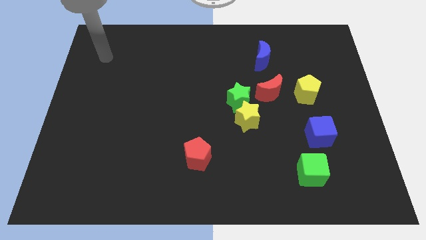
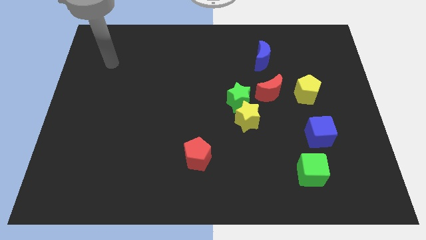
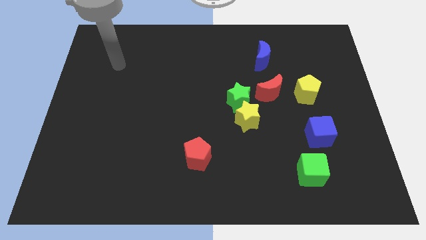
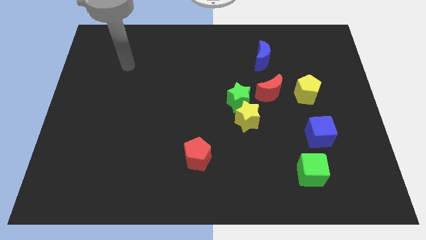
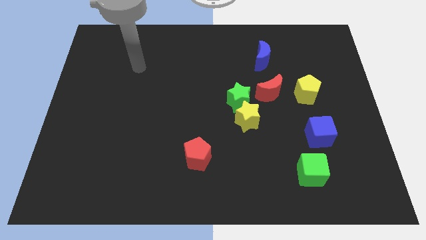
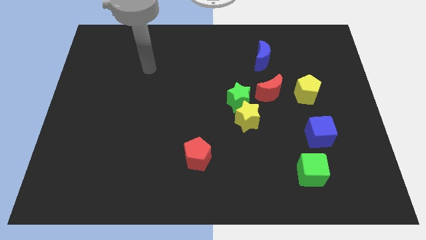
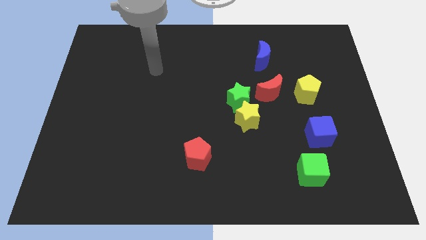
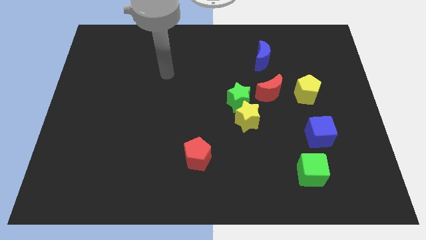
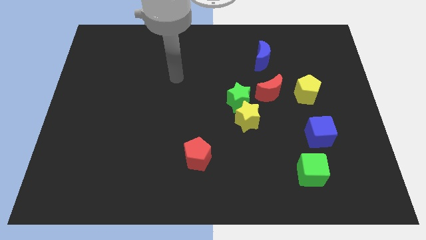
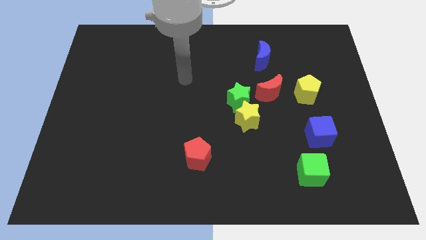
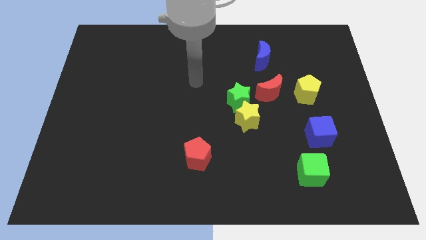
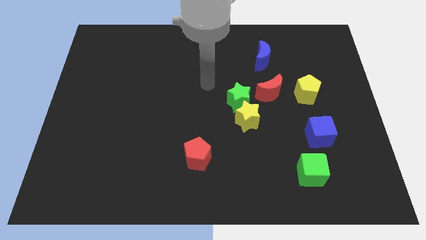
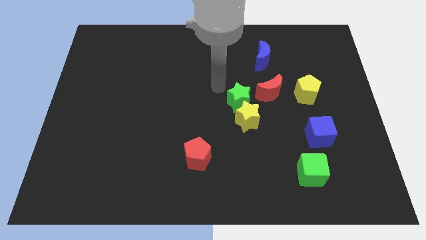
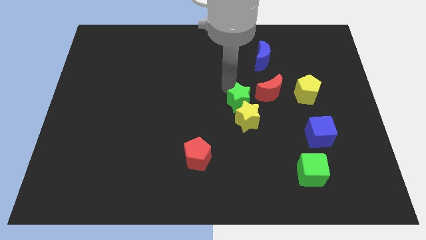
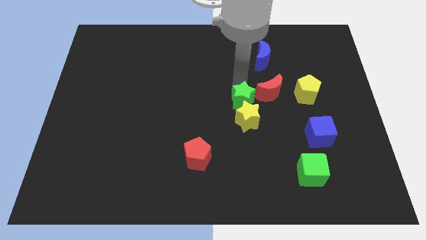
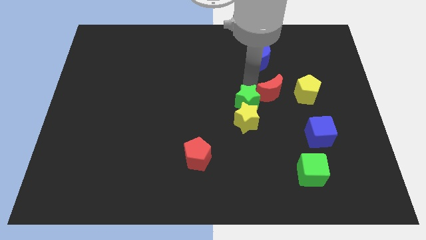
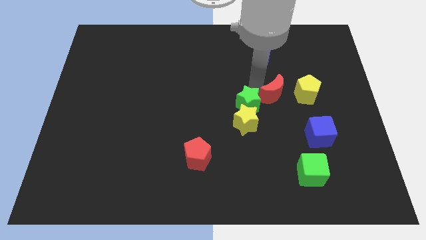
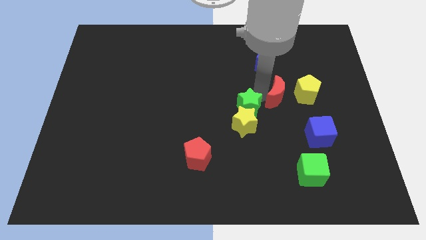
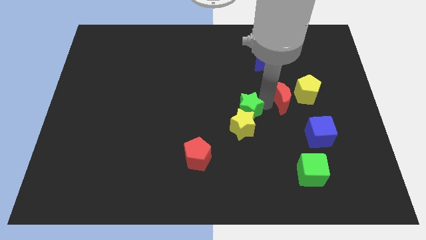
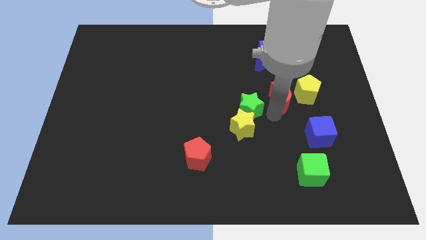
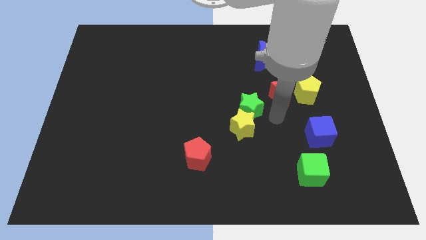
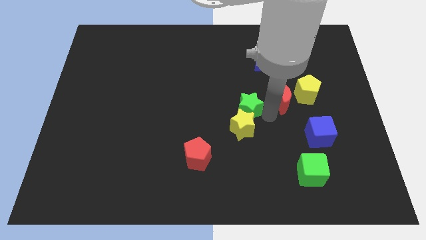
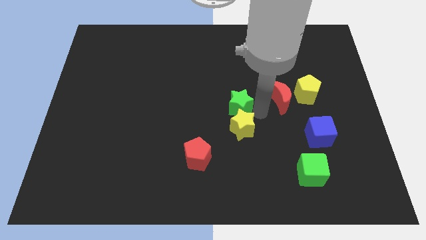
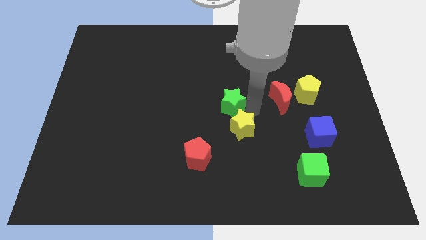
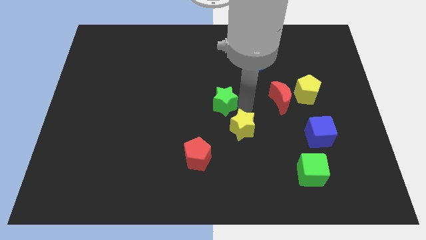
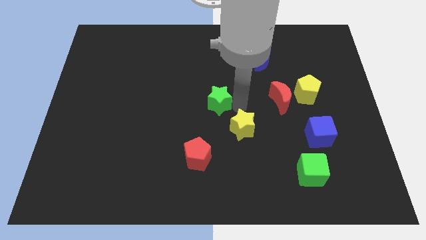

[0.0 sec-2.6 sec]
move the green star away from the yellow star and red moon

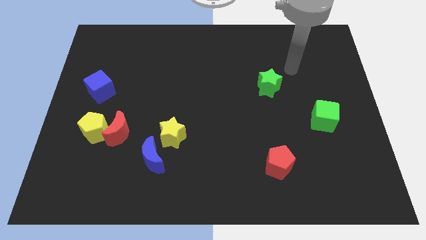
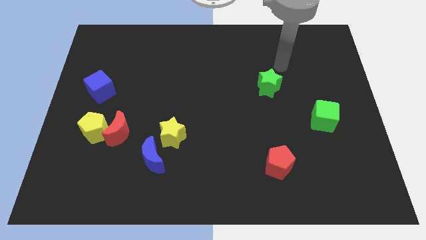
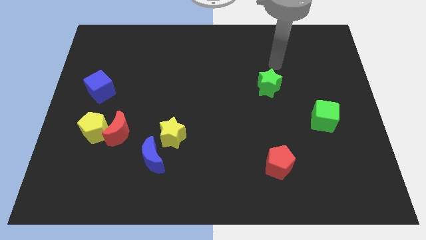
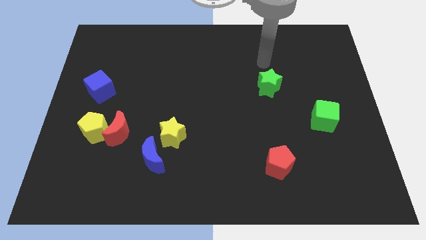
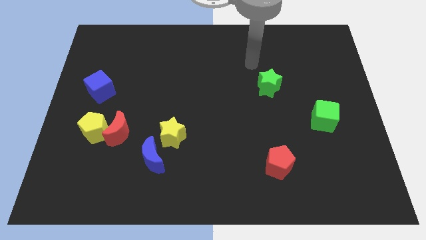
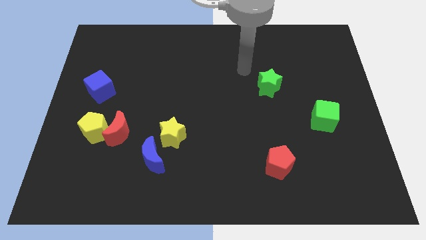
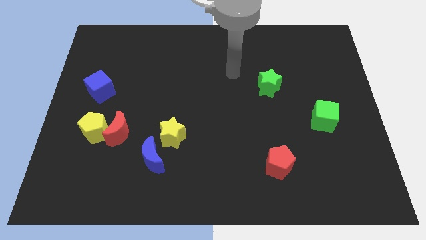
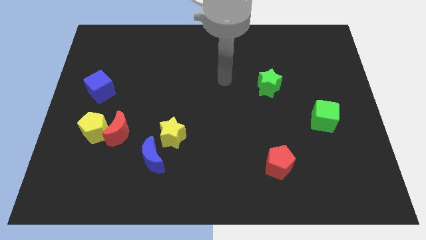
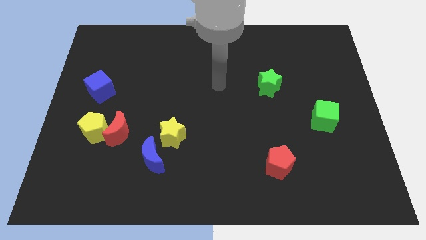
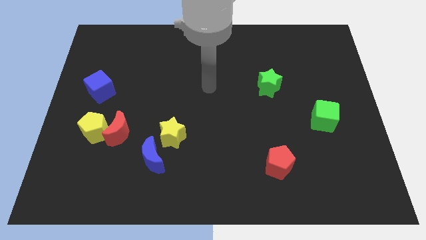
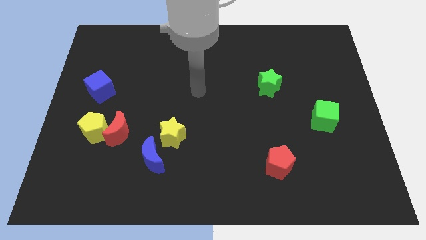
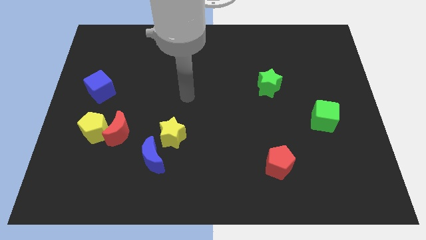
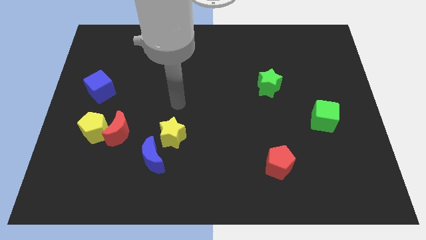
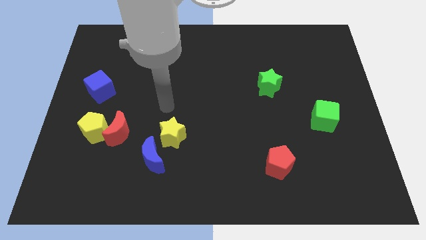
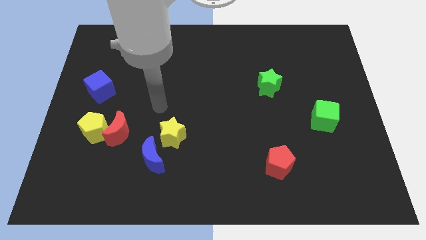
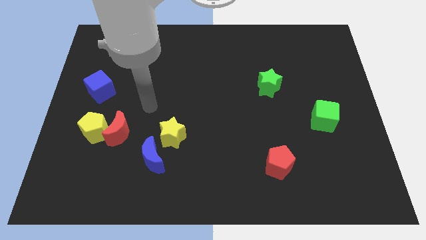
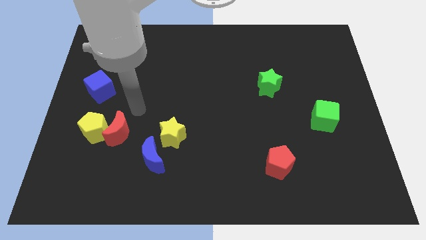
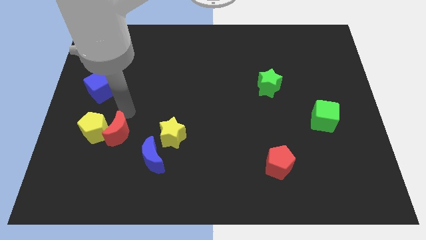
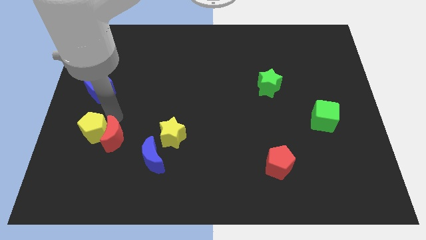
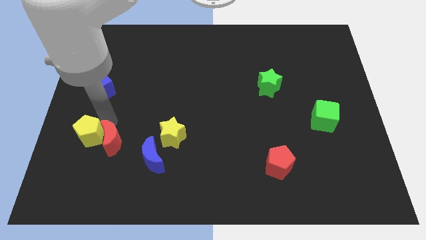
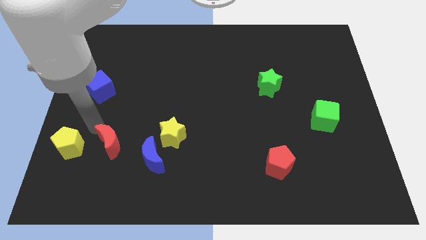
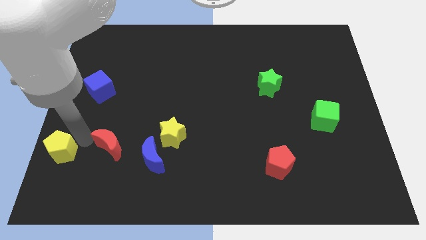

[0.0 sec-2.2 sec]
separate the red moon from the yellow pentagon

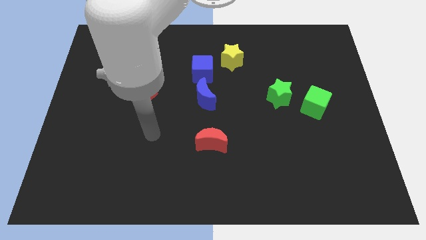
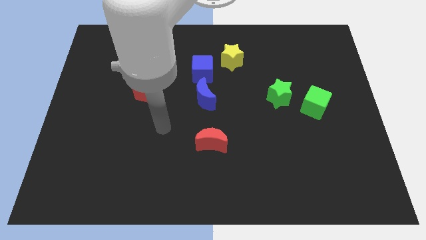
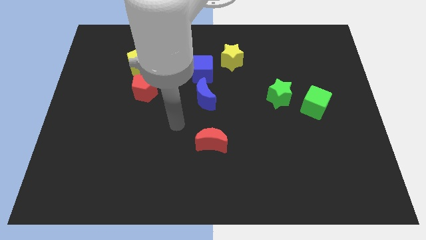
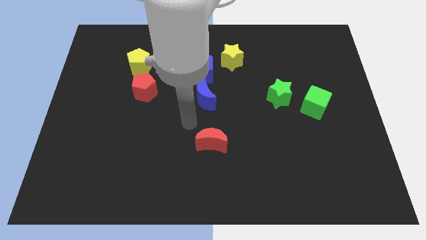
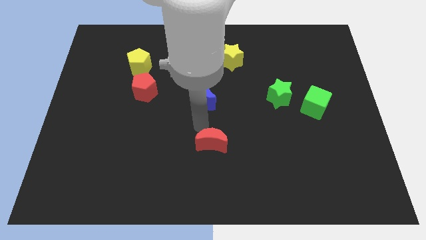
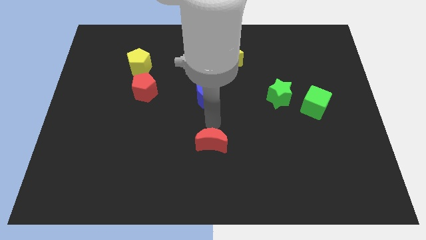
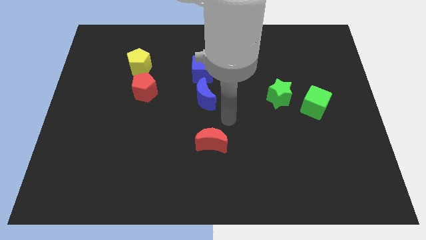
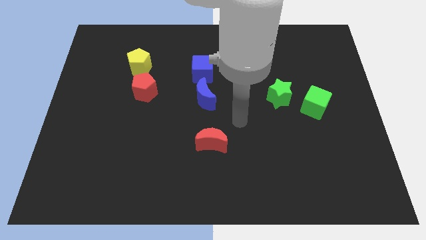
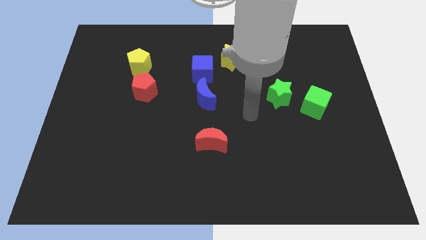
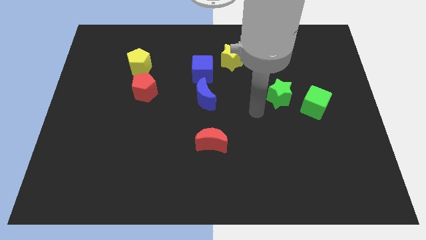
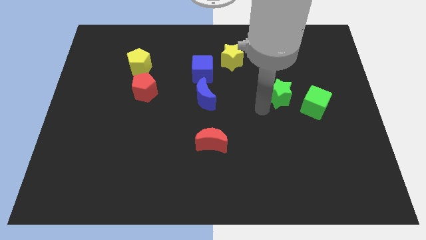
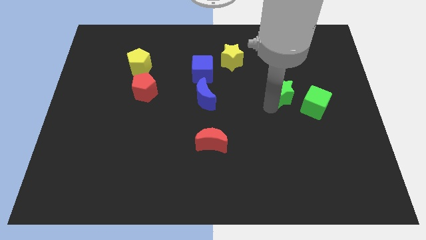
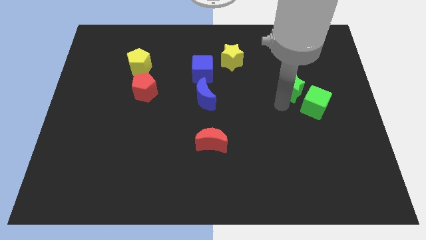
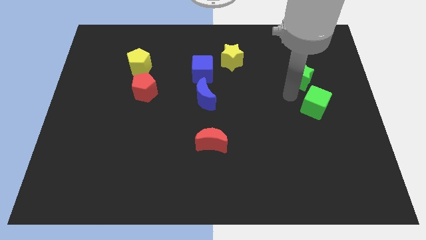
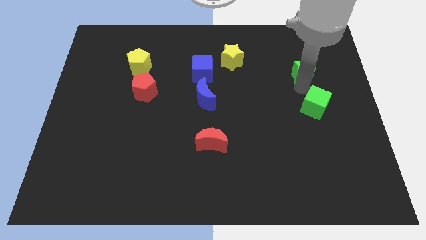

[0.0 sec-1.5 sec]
separate the green cube from the green star

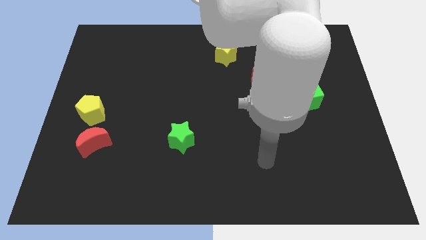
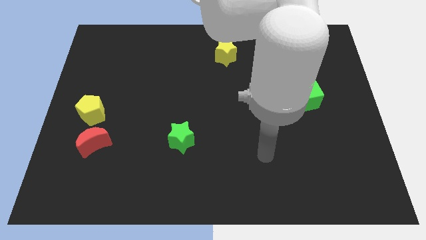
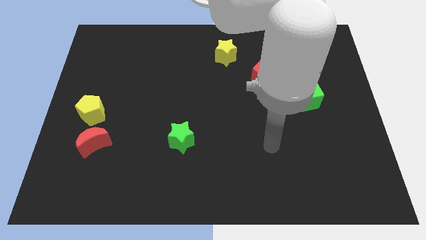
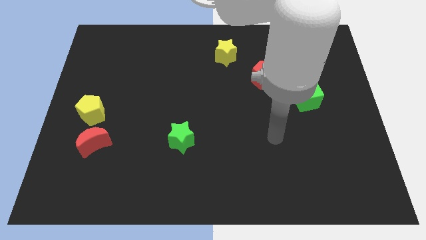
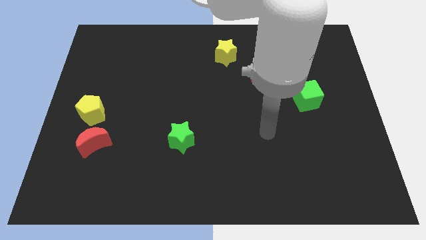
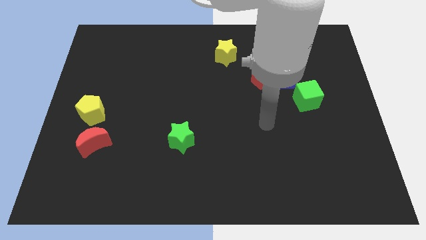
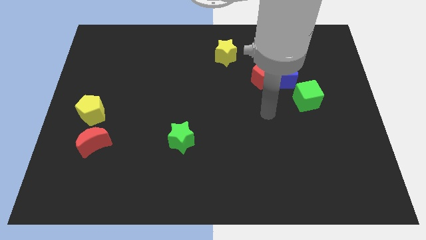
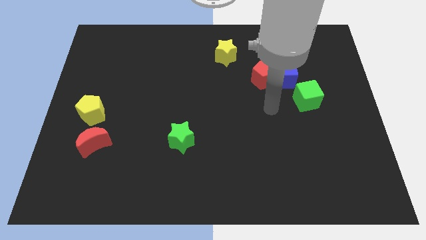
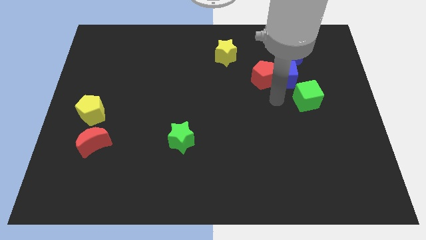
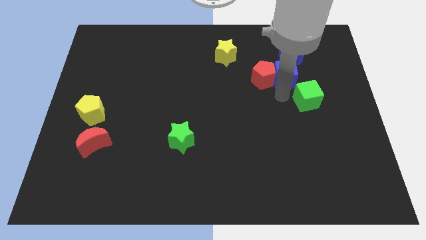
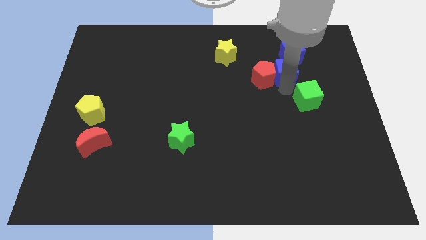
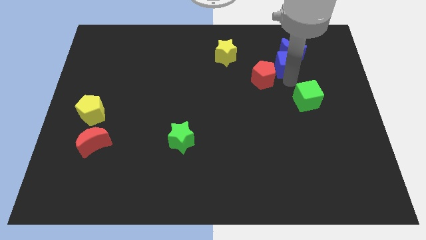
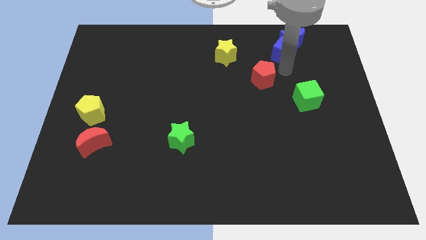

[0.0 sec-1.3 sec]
move the red pentagon away from the blue cube

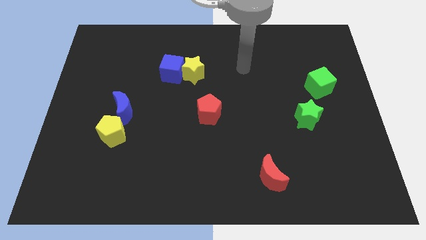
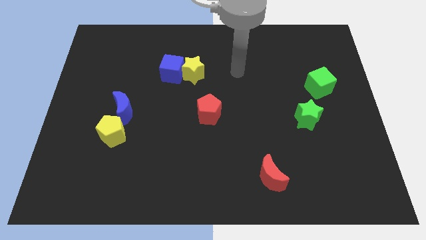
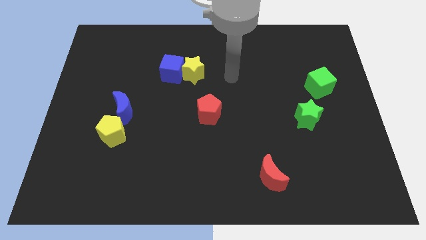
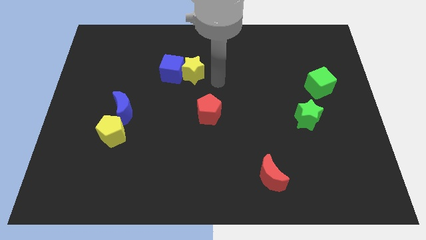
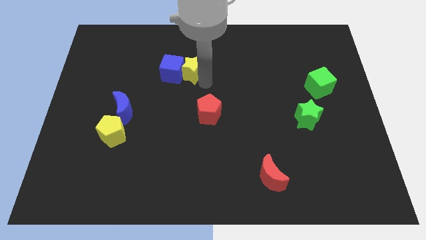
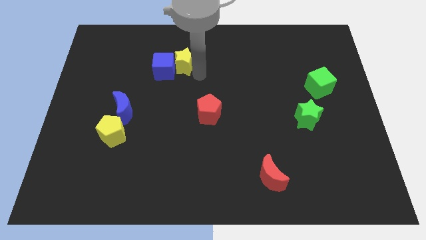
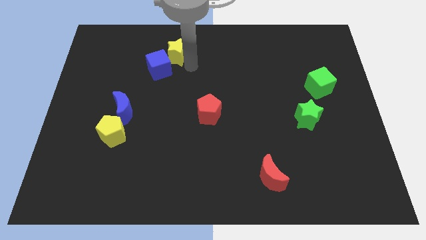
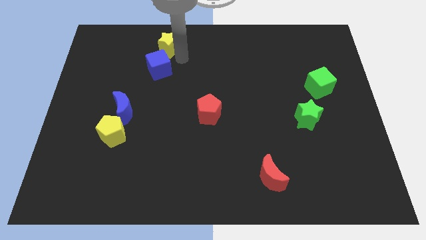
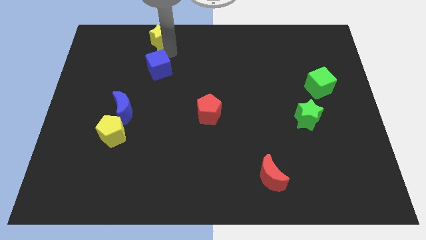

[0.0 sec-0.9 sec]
move the blue cube away from the yellow star

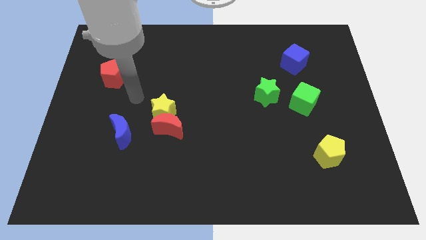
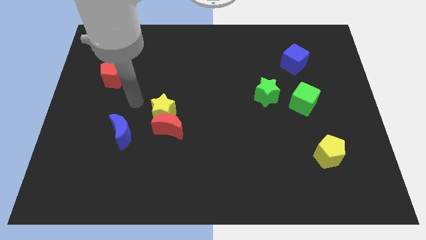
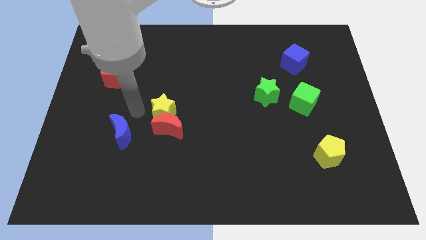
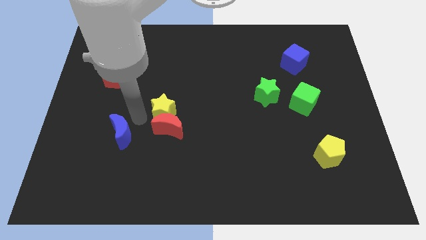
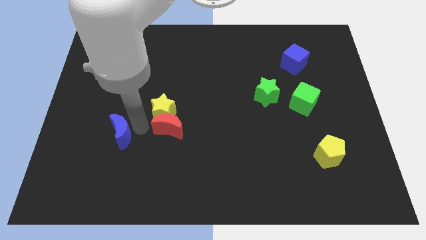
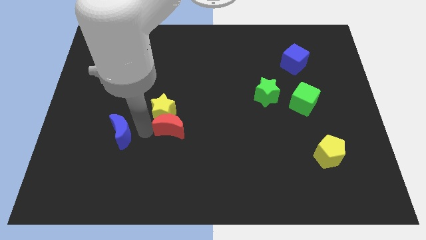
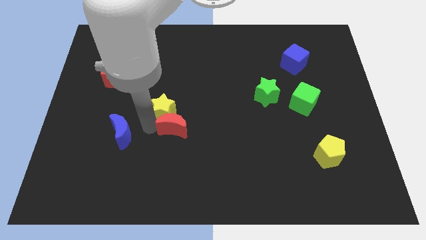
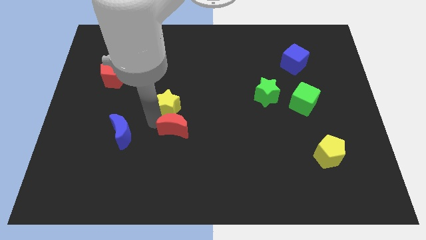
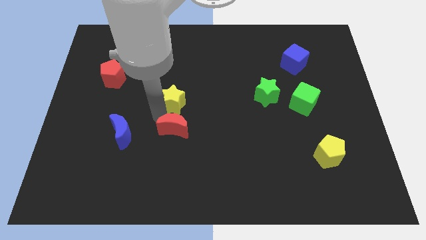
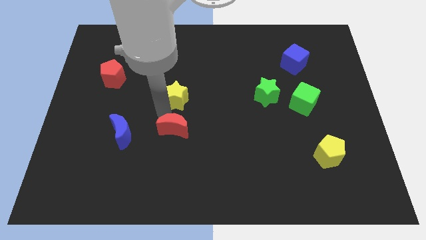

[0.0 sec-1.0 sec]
move the yellow star away from the red moon and blue moon
